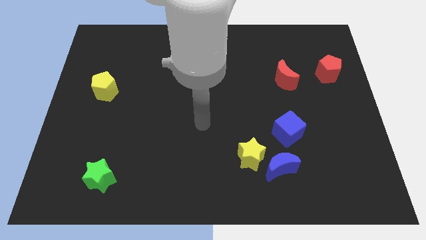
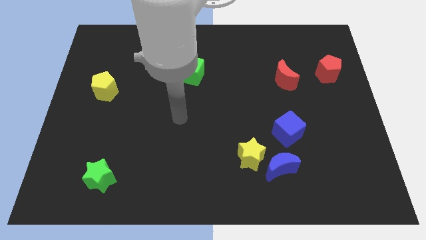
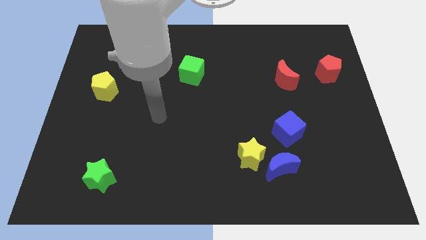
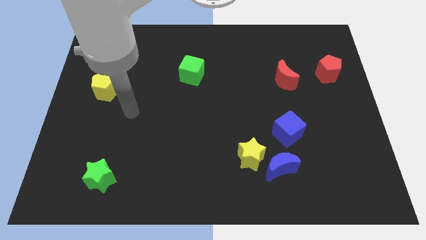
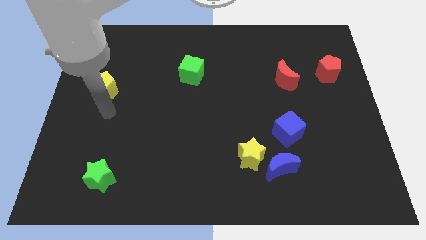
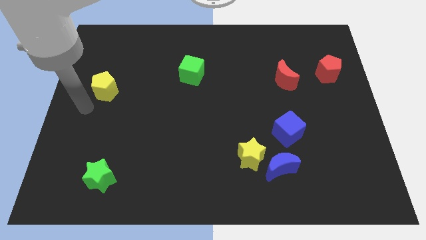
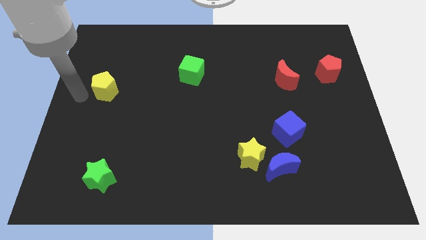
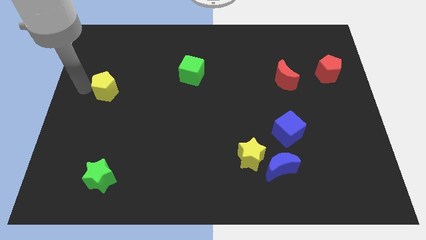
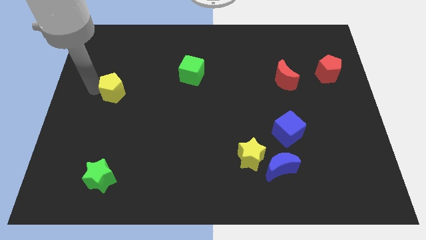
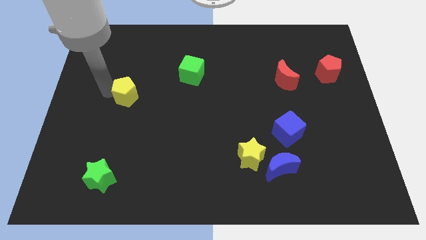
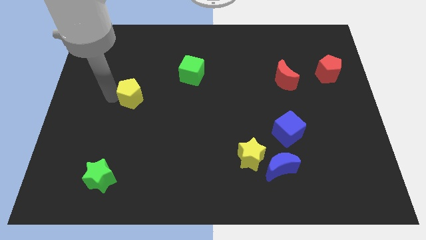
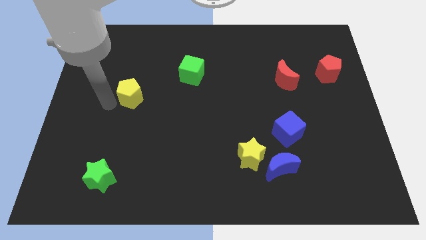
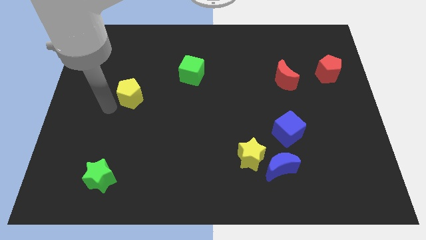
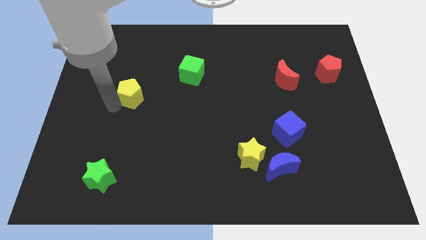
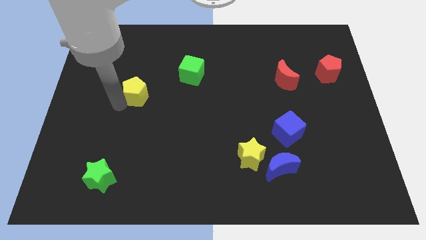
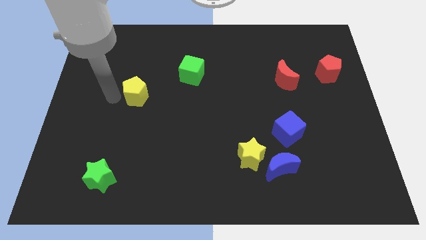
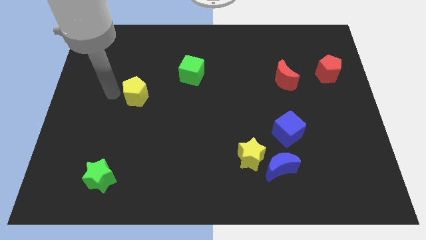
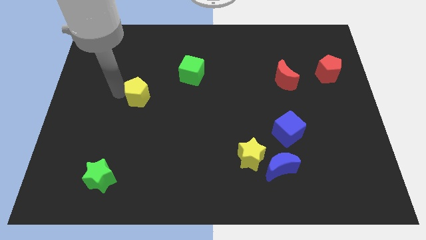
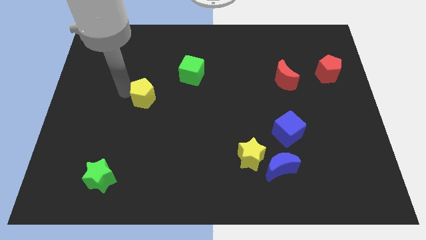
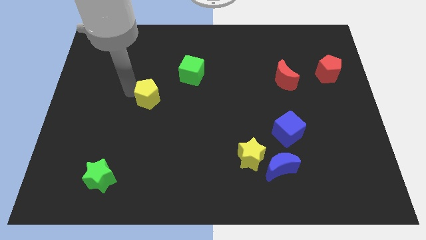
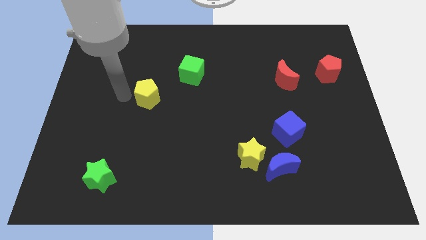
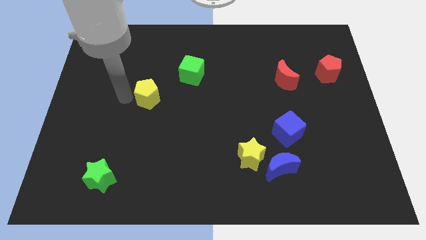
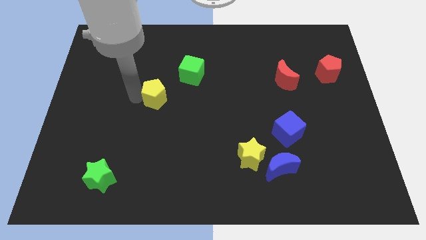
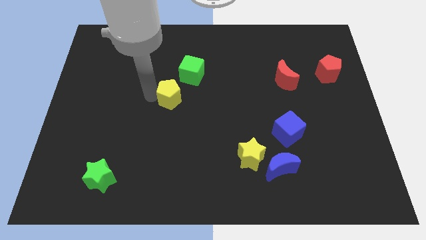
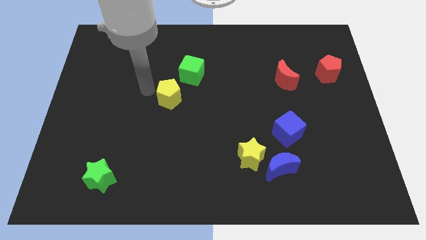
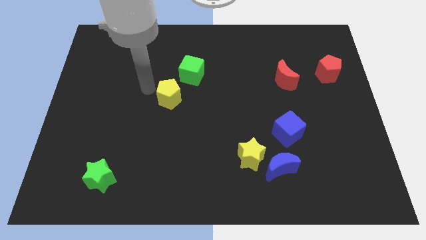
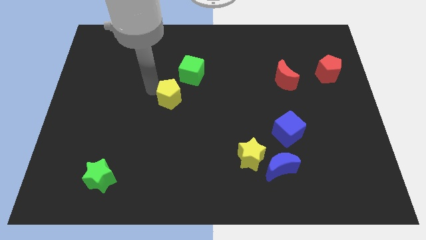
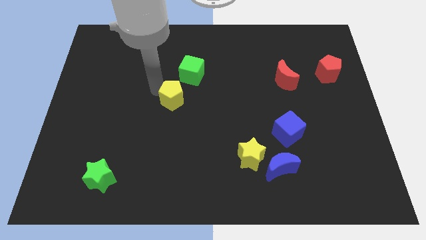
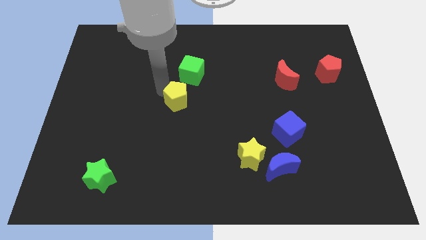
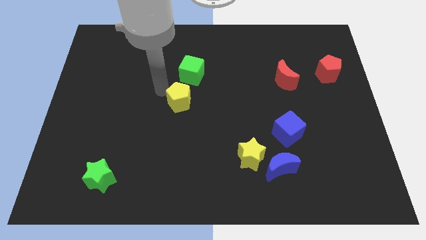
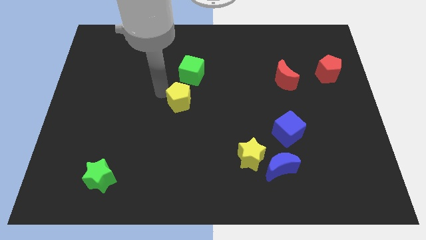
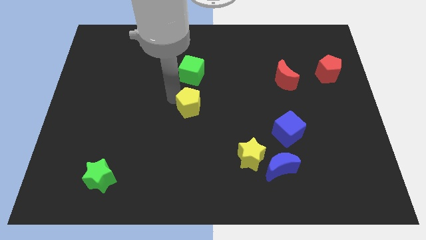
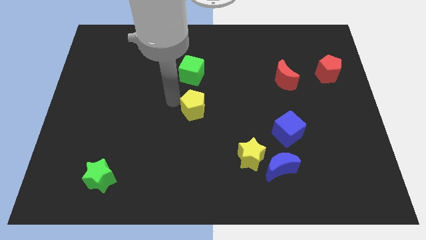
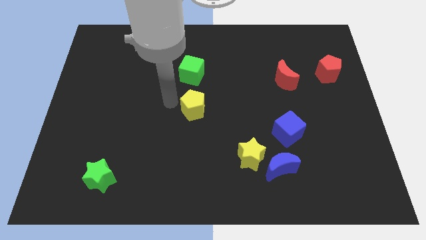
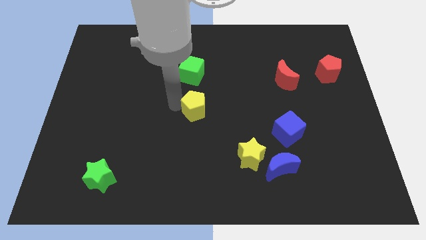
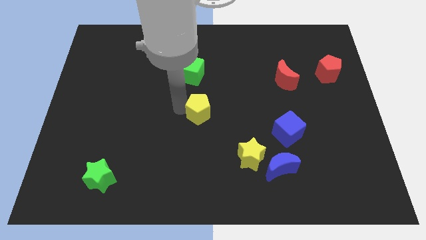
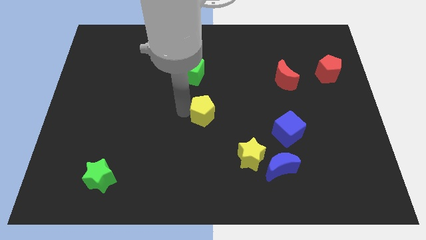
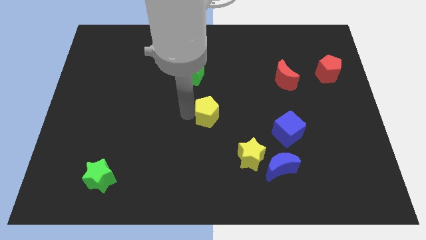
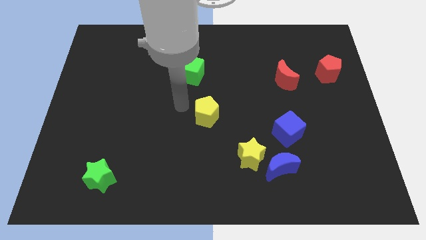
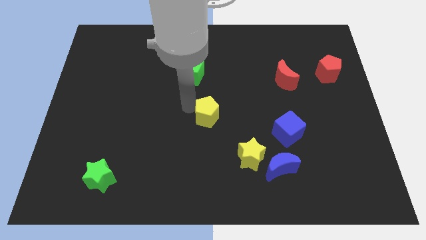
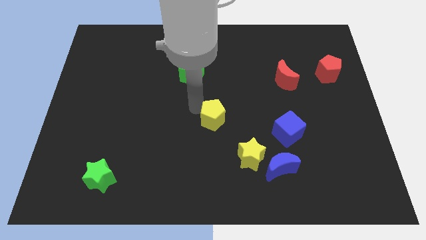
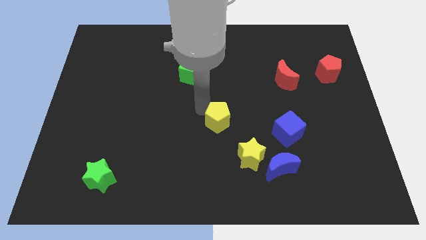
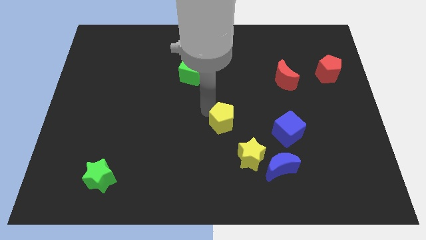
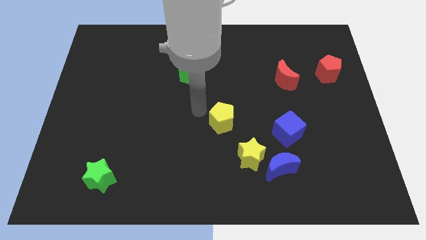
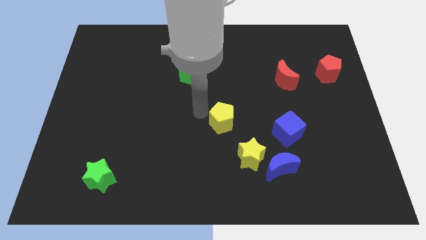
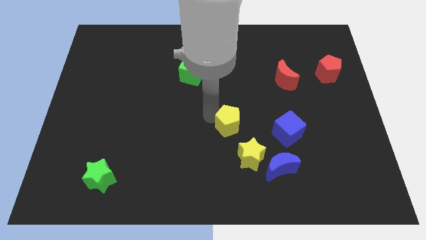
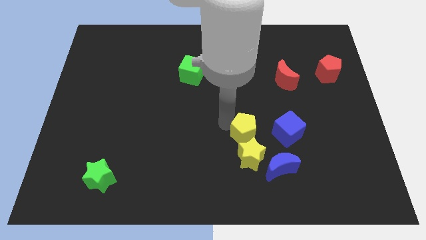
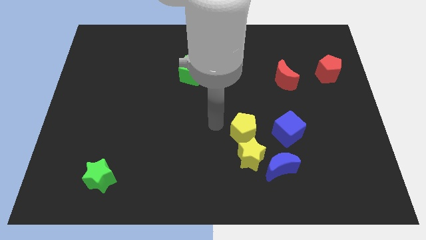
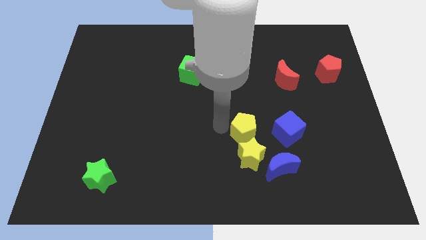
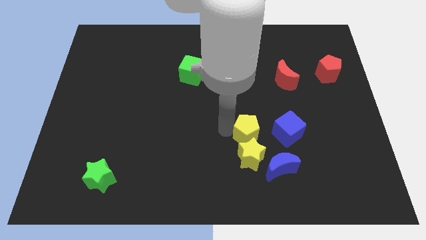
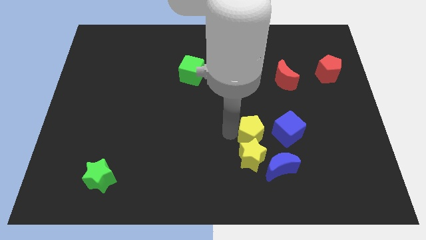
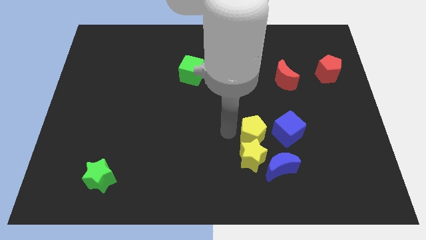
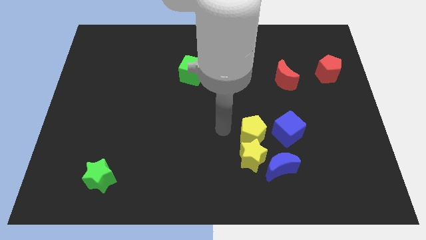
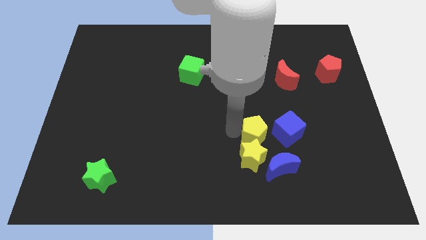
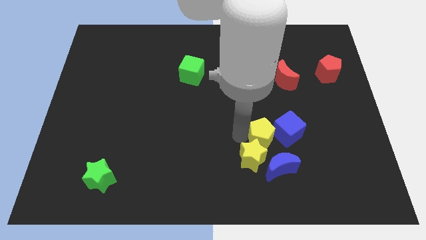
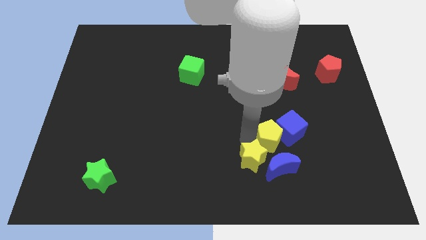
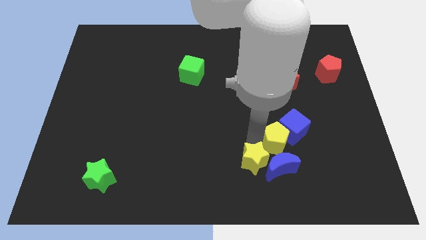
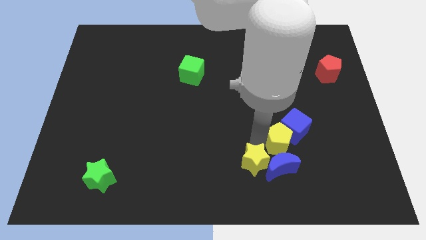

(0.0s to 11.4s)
move the yellow pentagon next to the blue moon

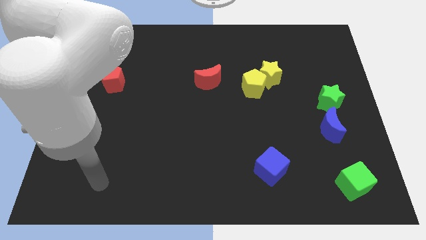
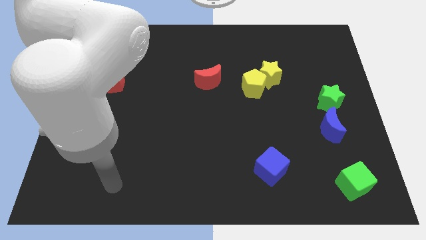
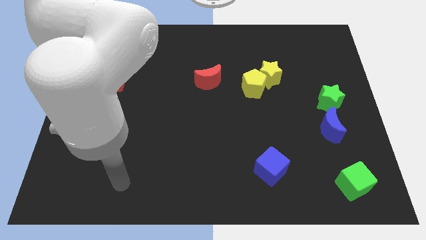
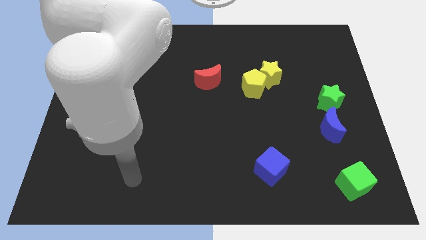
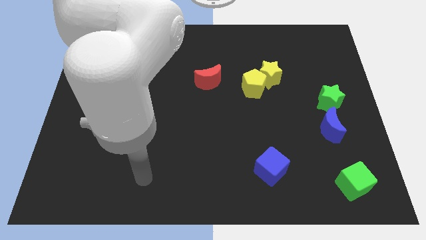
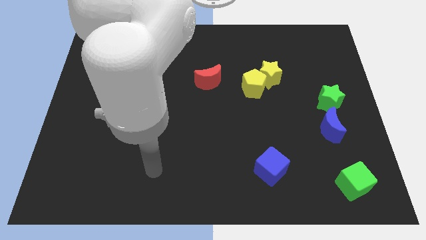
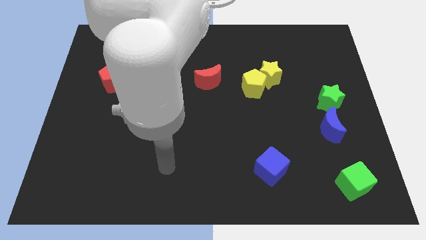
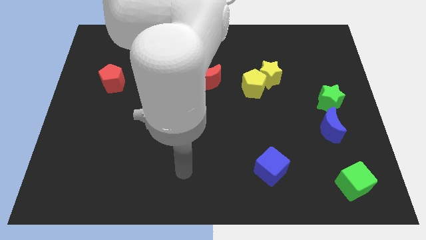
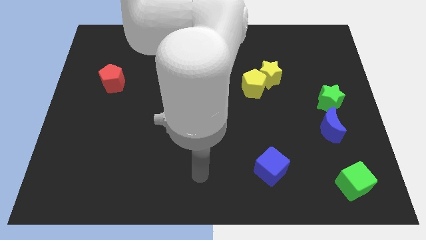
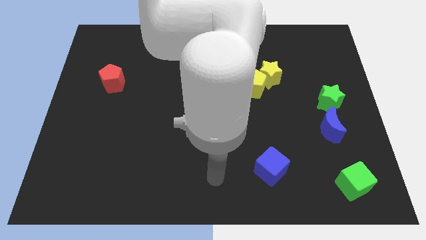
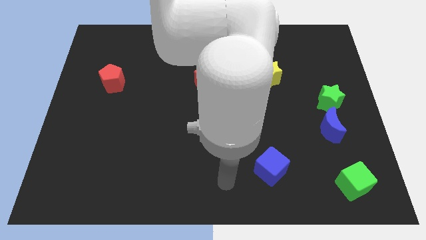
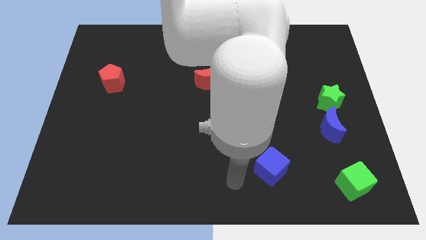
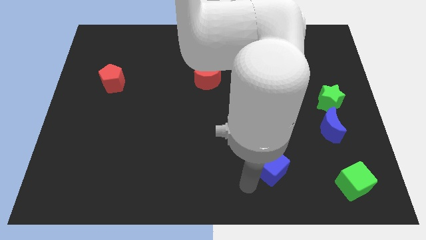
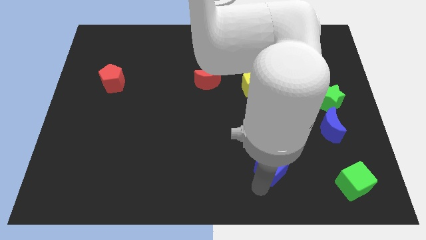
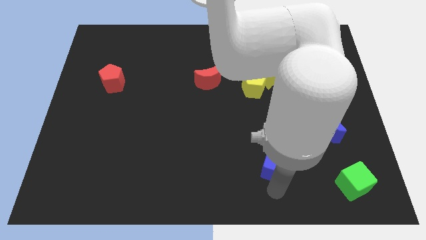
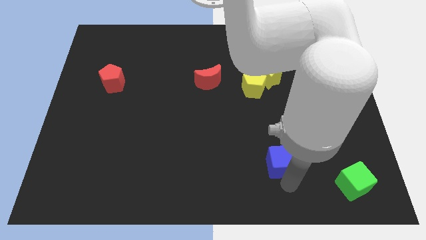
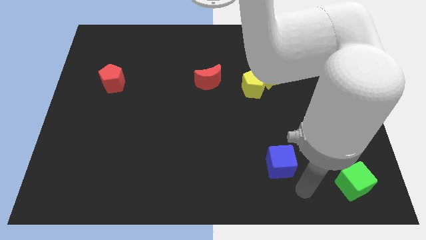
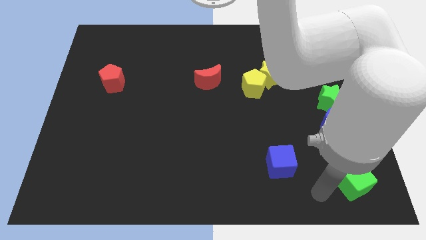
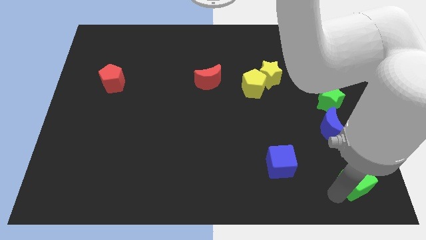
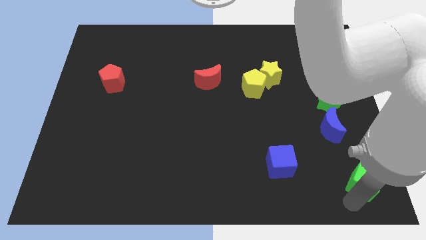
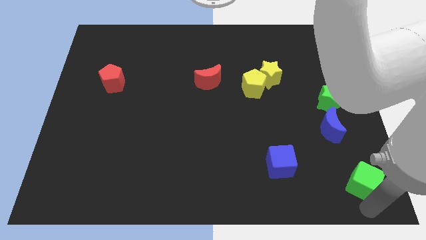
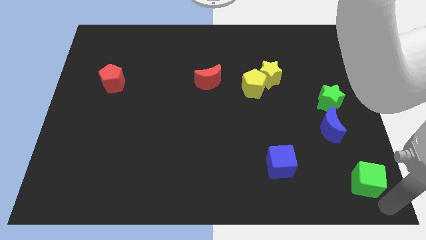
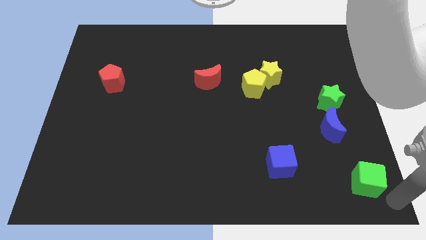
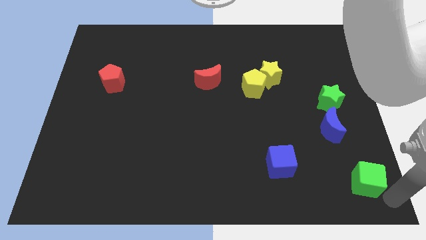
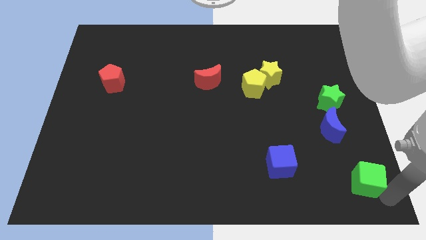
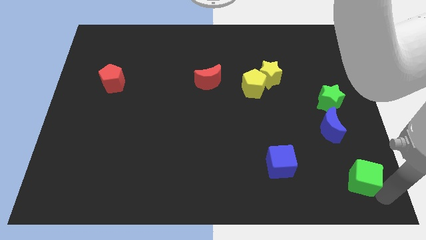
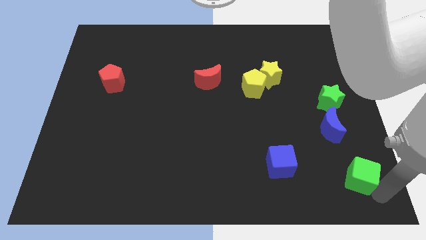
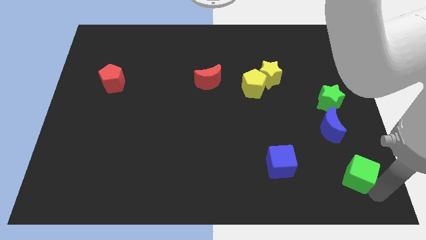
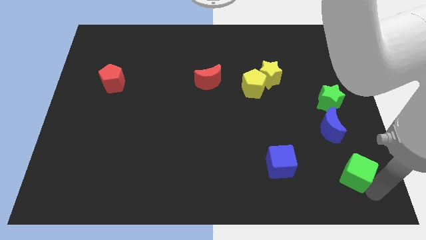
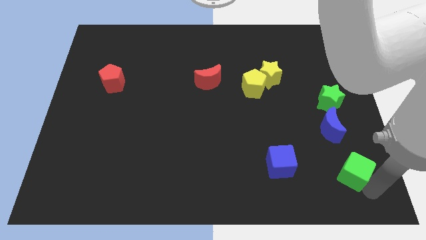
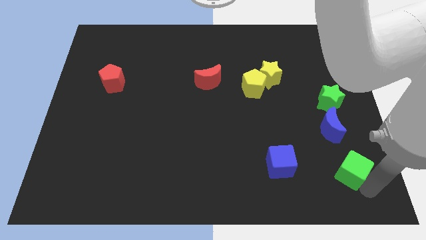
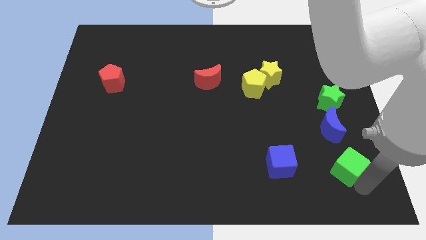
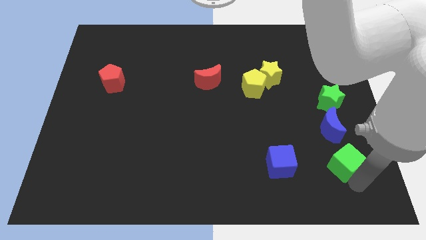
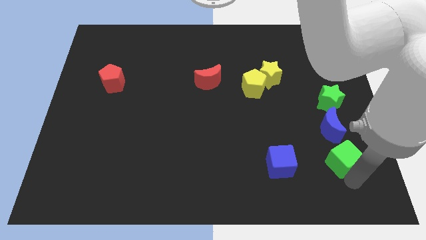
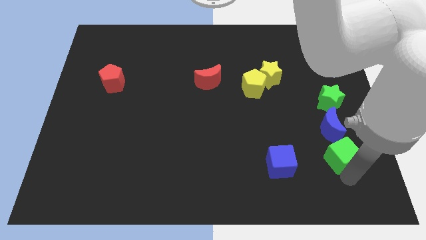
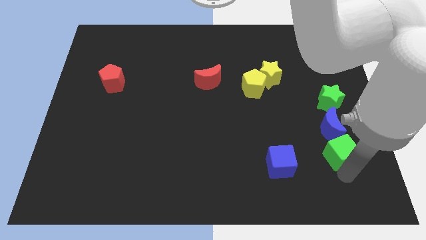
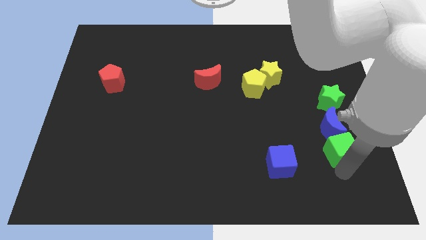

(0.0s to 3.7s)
slide the green cube close to the blue moon
